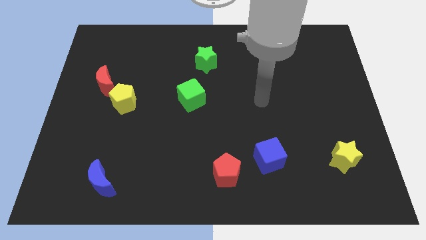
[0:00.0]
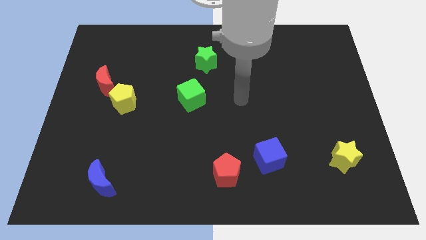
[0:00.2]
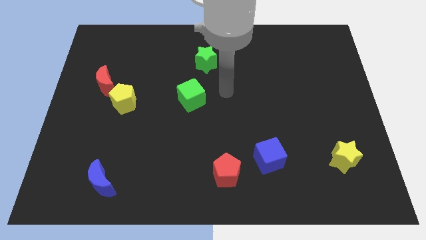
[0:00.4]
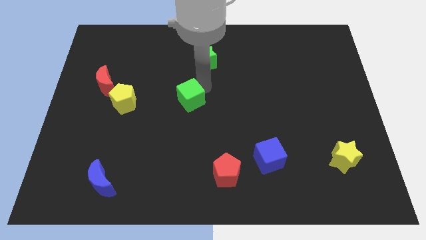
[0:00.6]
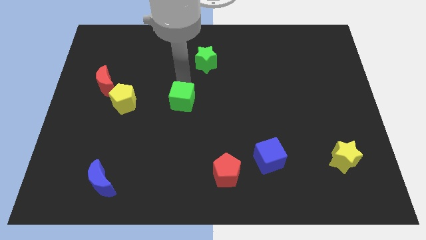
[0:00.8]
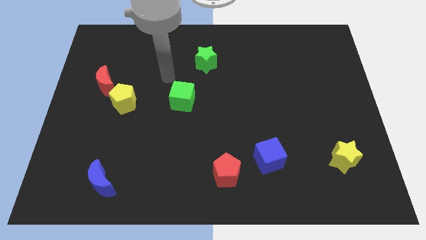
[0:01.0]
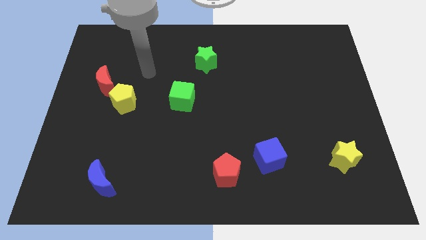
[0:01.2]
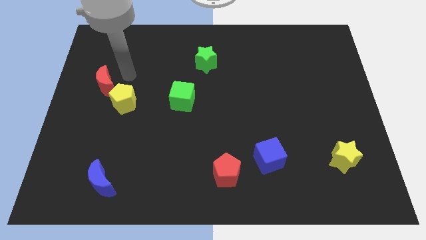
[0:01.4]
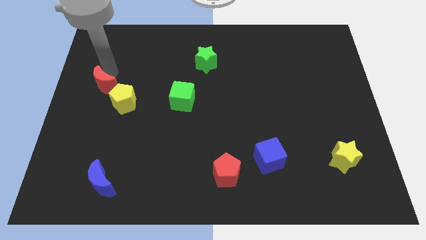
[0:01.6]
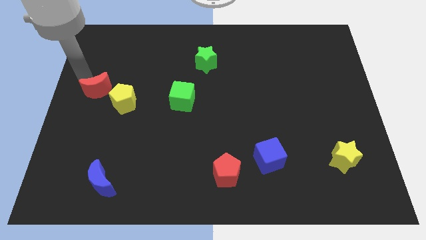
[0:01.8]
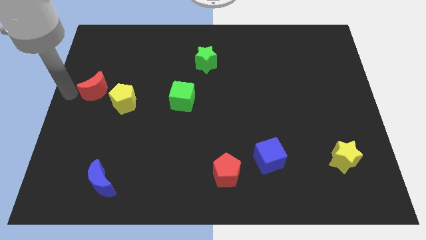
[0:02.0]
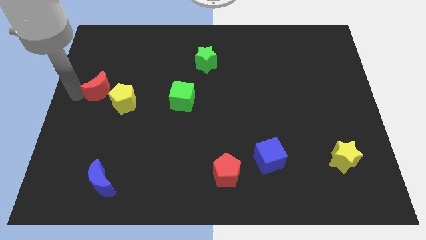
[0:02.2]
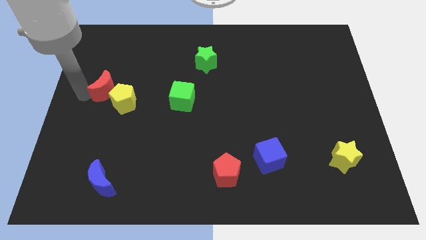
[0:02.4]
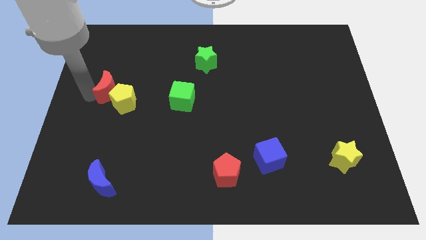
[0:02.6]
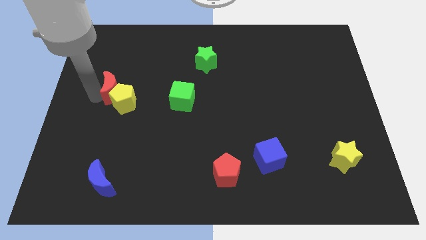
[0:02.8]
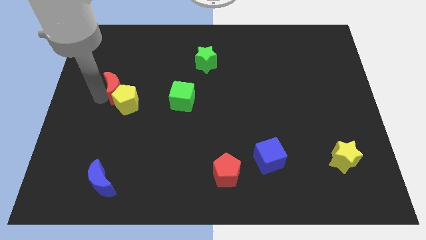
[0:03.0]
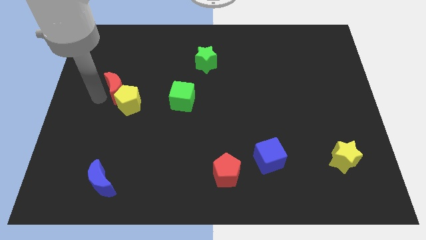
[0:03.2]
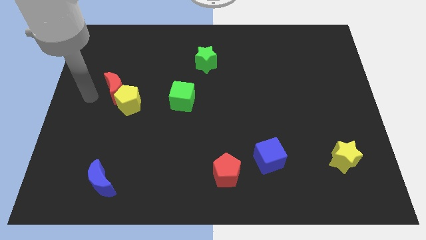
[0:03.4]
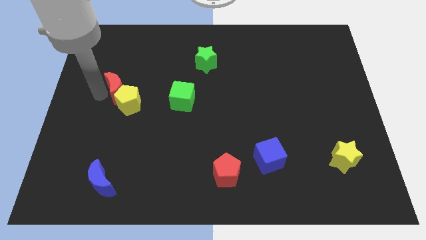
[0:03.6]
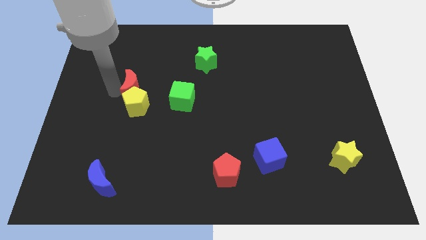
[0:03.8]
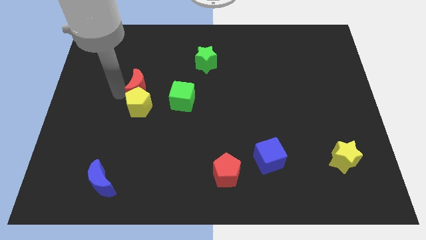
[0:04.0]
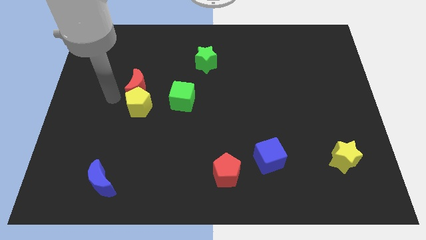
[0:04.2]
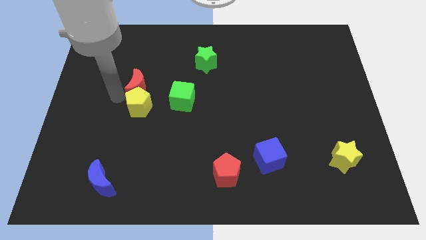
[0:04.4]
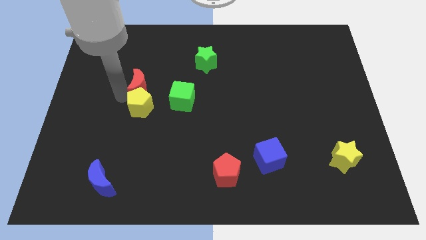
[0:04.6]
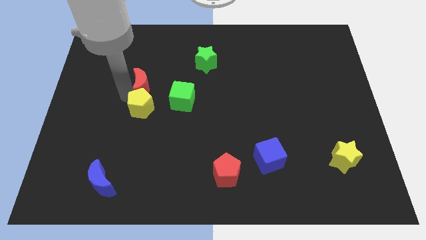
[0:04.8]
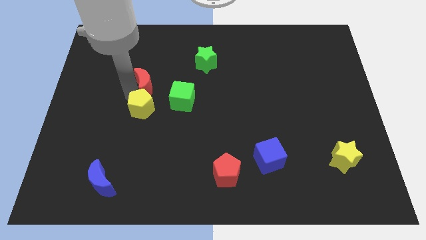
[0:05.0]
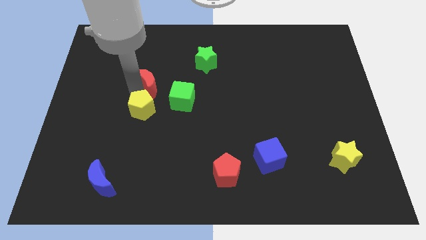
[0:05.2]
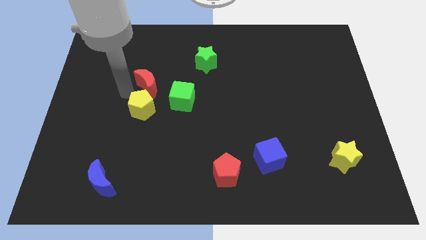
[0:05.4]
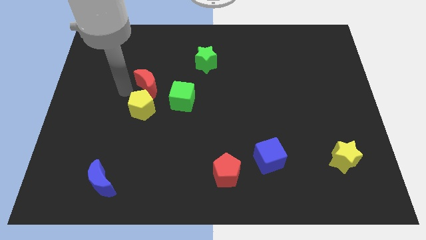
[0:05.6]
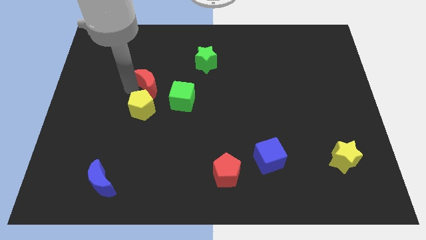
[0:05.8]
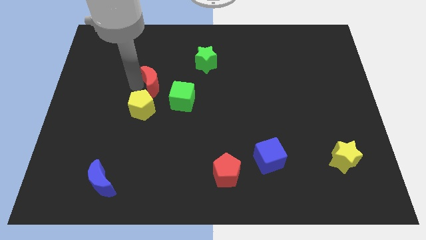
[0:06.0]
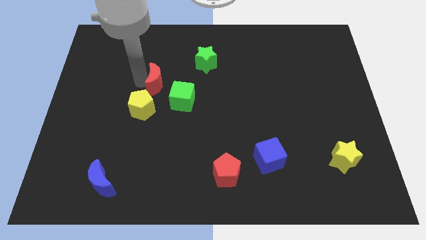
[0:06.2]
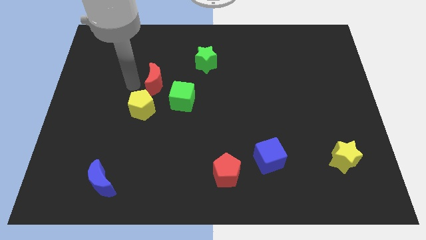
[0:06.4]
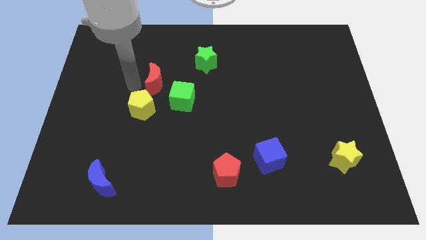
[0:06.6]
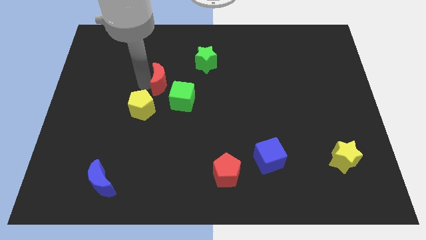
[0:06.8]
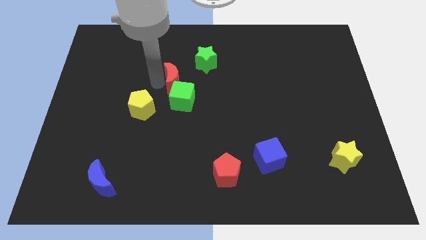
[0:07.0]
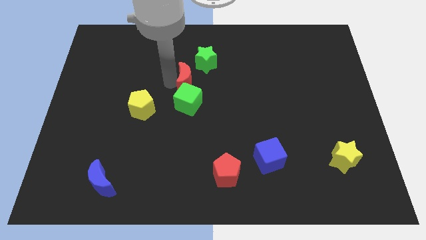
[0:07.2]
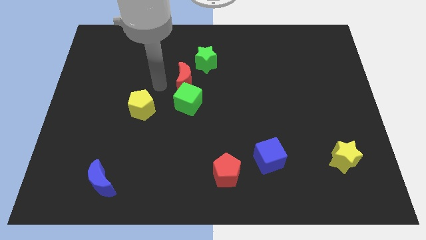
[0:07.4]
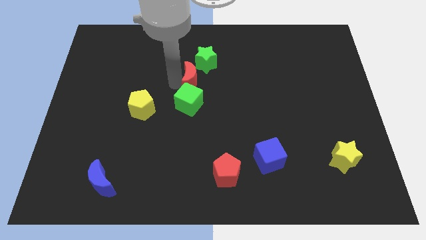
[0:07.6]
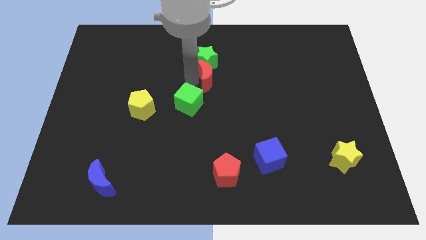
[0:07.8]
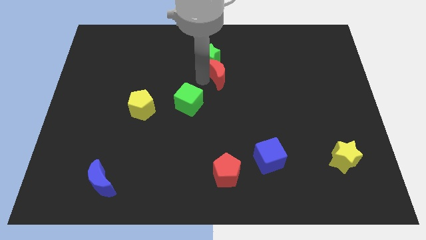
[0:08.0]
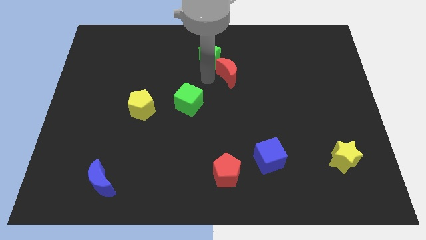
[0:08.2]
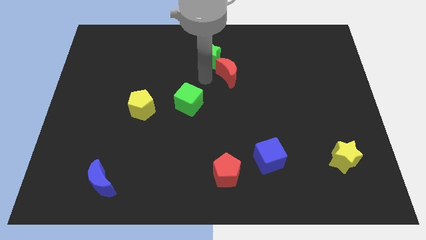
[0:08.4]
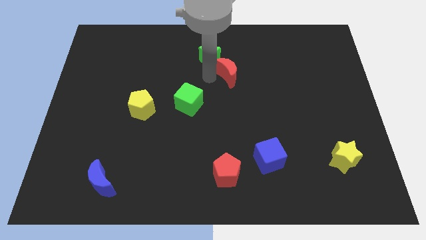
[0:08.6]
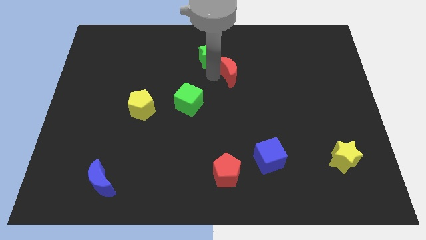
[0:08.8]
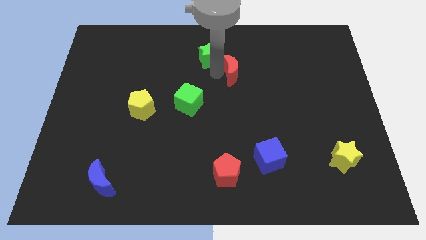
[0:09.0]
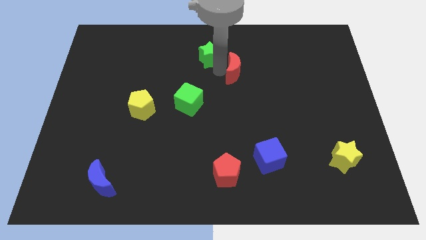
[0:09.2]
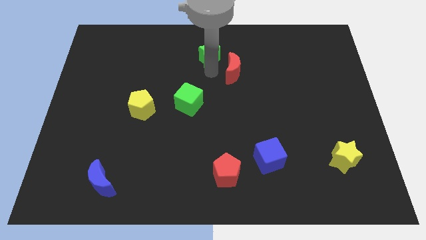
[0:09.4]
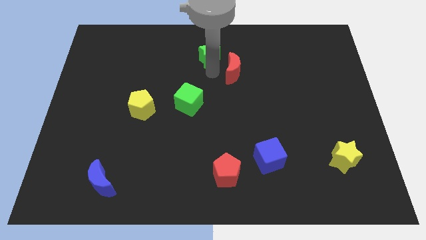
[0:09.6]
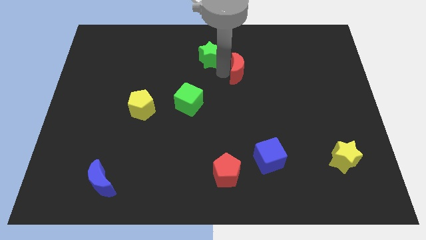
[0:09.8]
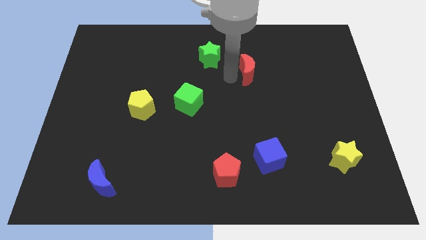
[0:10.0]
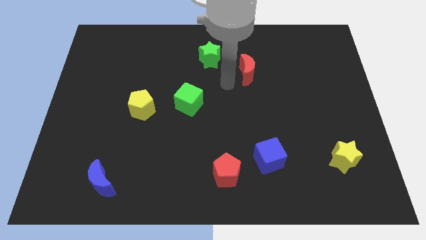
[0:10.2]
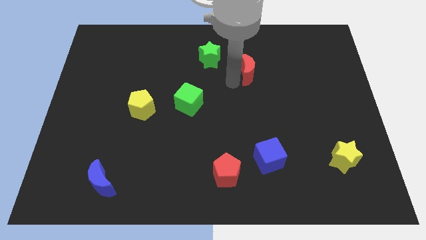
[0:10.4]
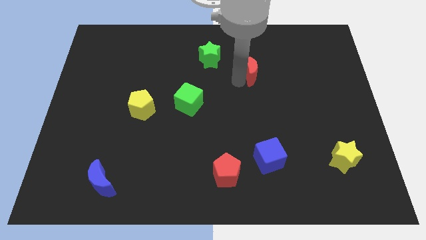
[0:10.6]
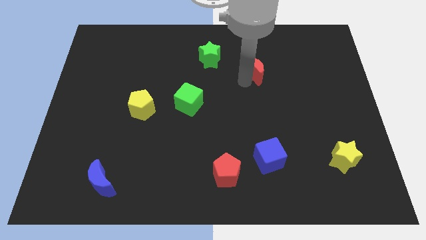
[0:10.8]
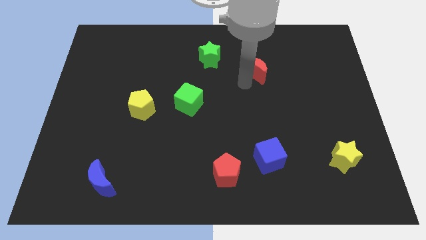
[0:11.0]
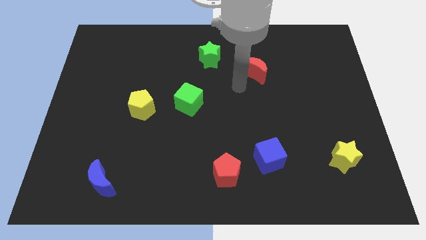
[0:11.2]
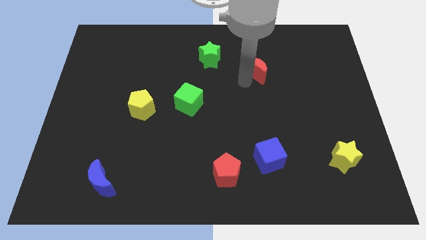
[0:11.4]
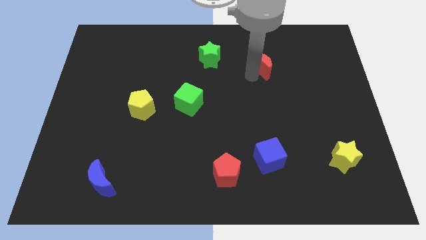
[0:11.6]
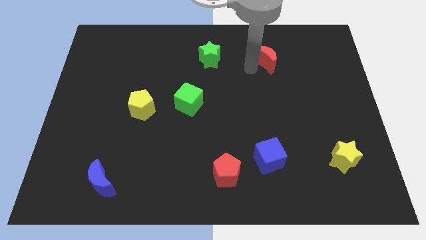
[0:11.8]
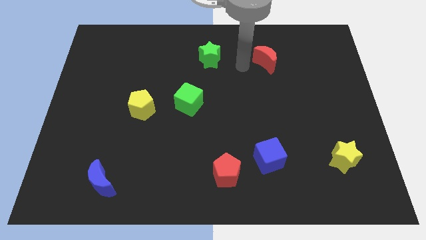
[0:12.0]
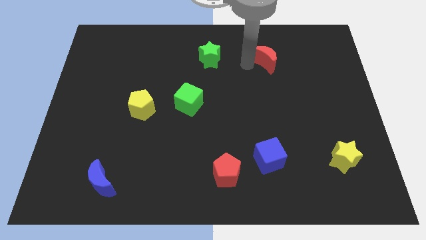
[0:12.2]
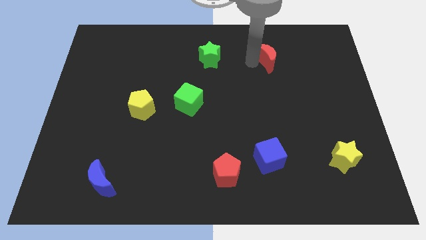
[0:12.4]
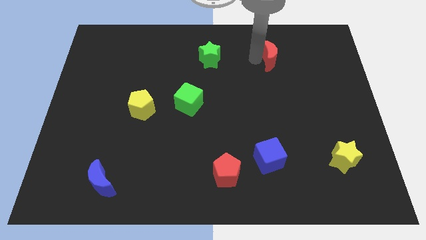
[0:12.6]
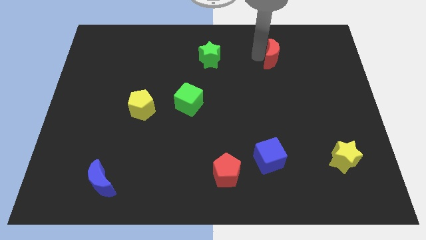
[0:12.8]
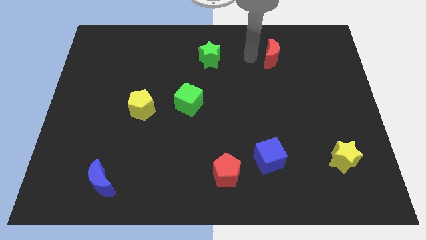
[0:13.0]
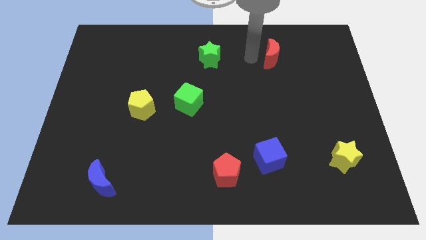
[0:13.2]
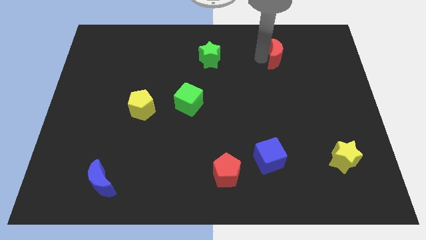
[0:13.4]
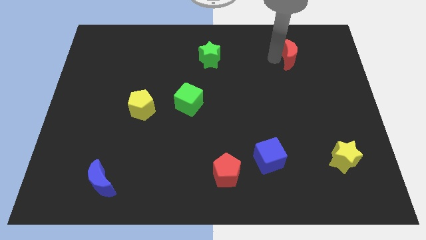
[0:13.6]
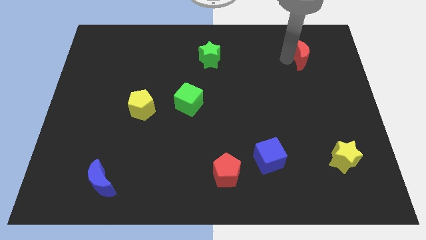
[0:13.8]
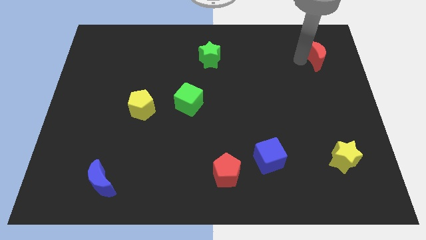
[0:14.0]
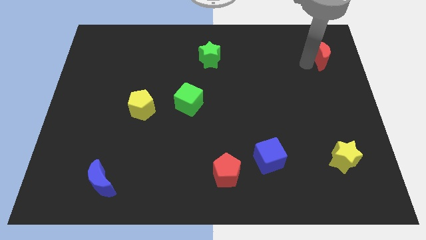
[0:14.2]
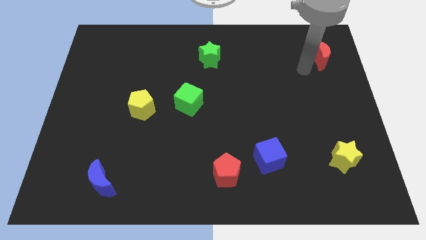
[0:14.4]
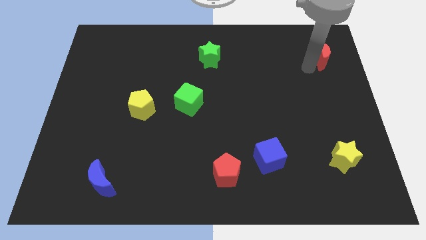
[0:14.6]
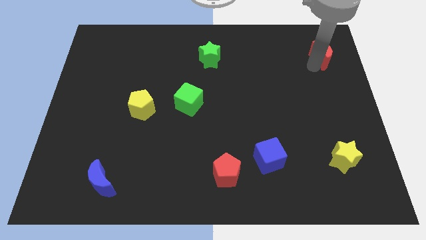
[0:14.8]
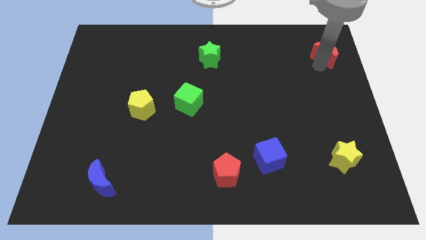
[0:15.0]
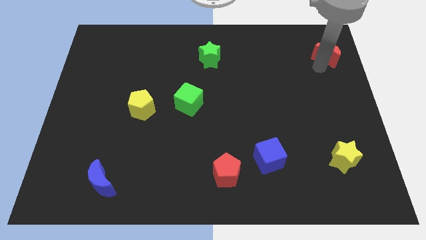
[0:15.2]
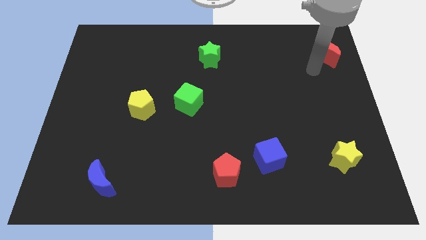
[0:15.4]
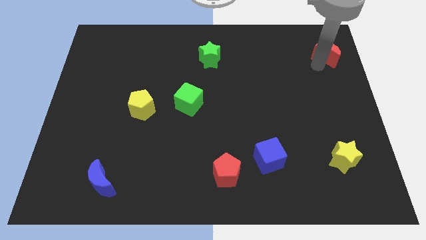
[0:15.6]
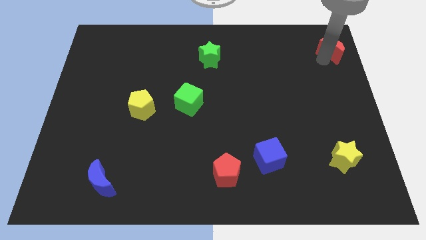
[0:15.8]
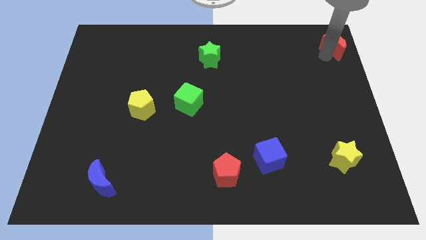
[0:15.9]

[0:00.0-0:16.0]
put the red moon to the upper right corner
